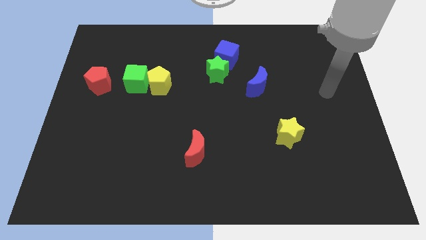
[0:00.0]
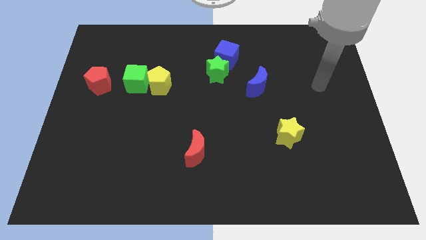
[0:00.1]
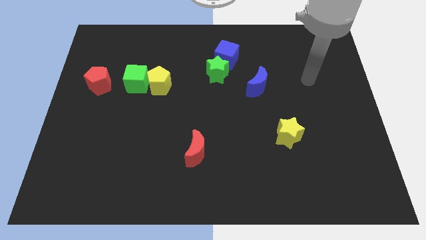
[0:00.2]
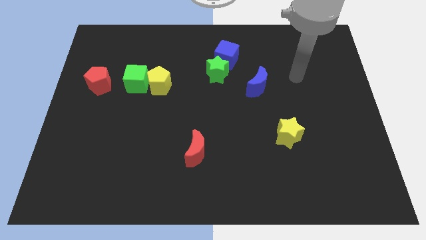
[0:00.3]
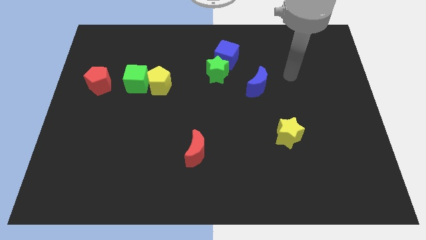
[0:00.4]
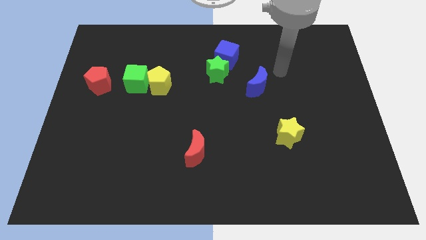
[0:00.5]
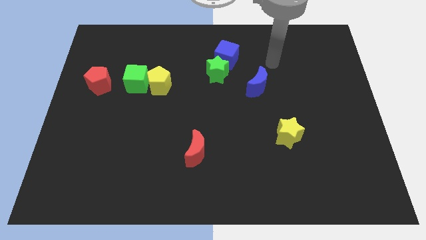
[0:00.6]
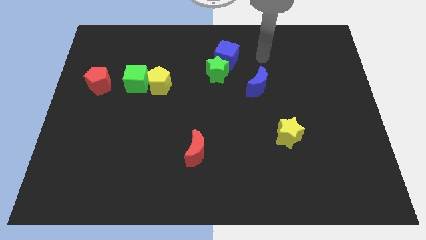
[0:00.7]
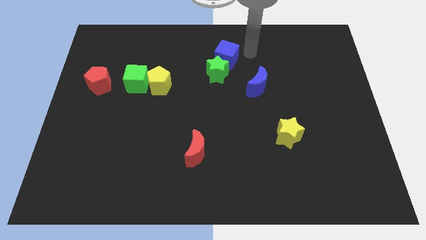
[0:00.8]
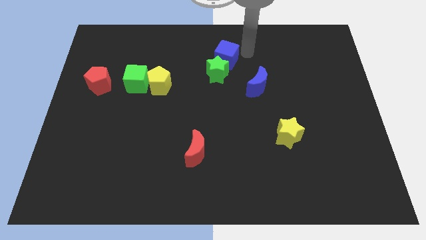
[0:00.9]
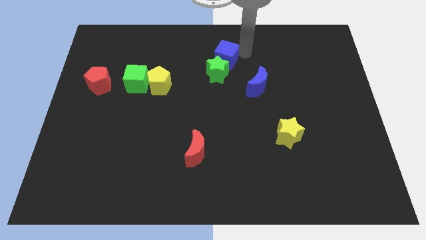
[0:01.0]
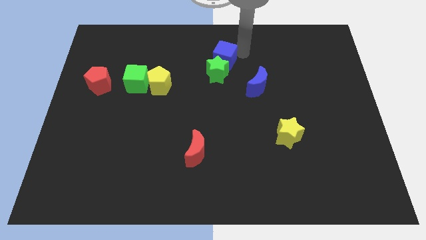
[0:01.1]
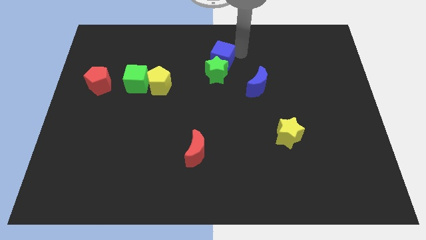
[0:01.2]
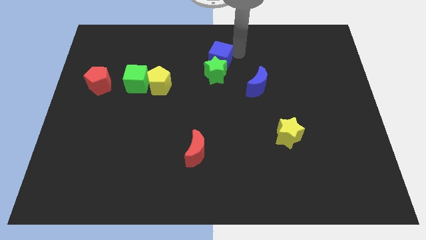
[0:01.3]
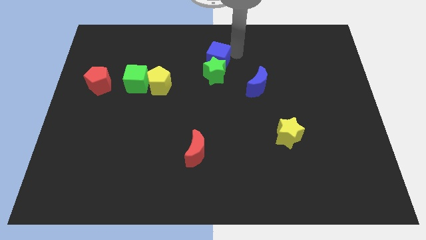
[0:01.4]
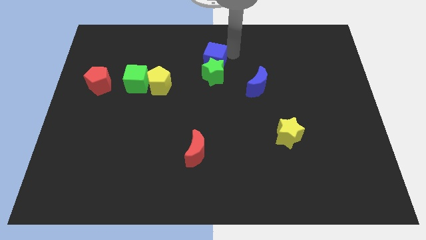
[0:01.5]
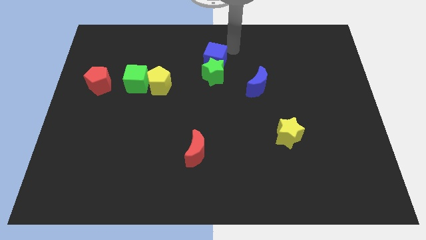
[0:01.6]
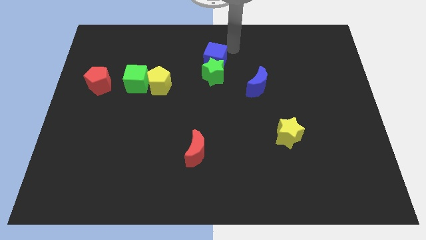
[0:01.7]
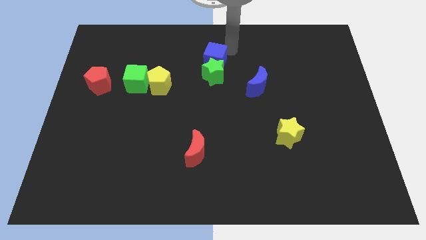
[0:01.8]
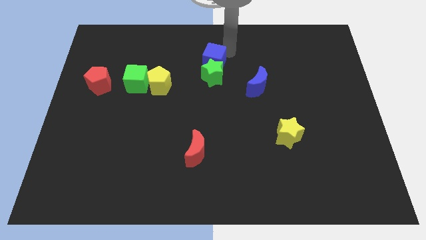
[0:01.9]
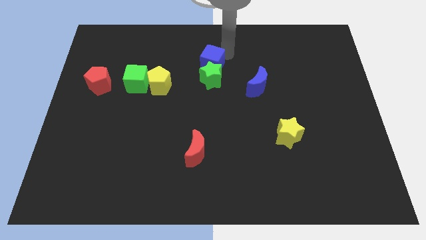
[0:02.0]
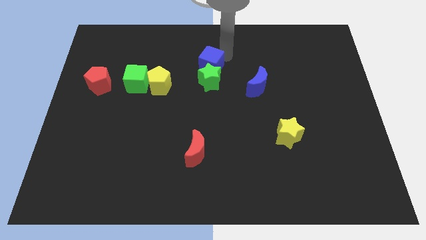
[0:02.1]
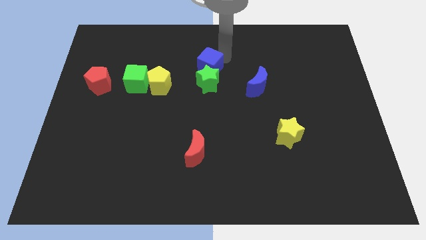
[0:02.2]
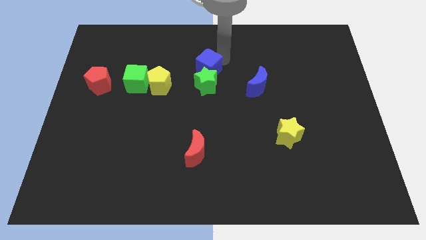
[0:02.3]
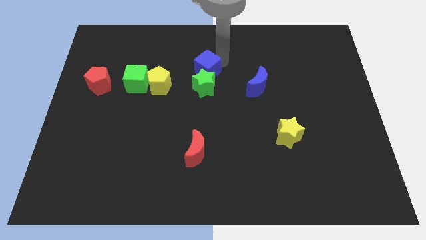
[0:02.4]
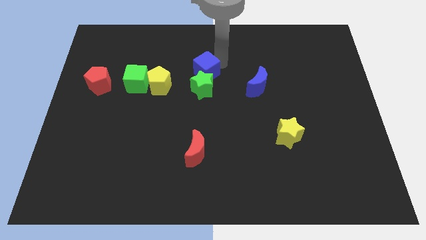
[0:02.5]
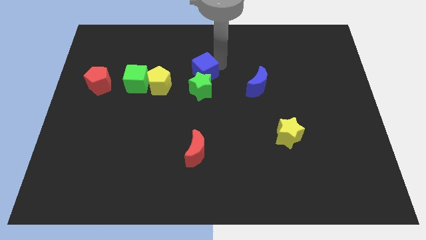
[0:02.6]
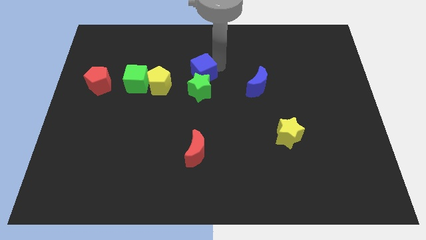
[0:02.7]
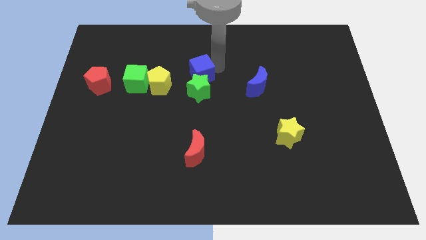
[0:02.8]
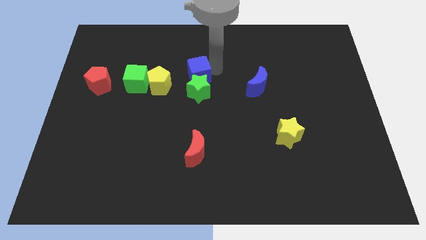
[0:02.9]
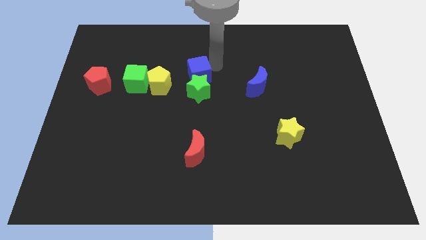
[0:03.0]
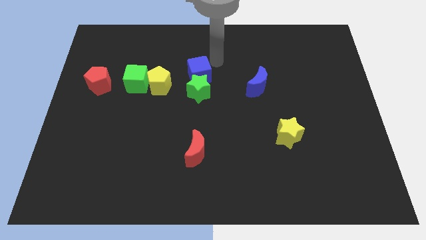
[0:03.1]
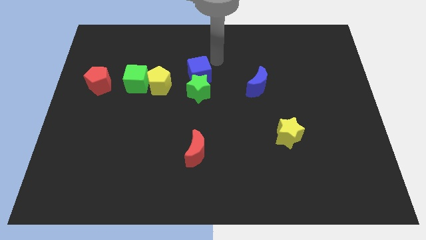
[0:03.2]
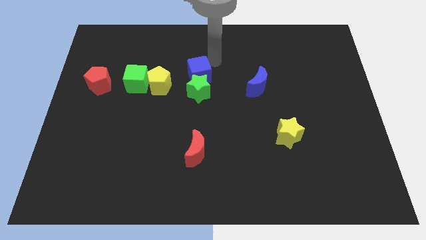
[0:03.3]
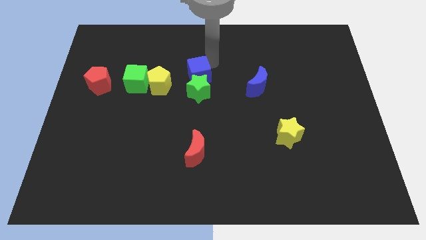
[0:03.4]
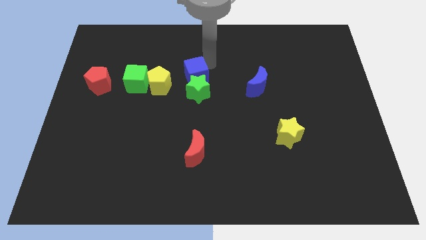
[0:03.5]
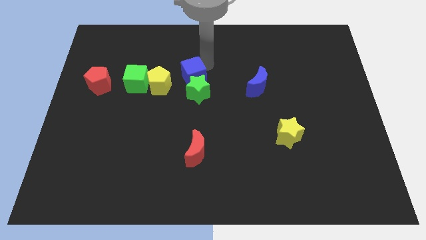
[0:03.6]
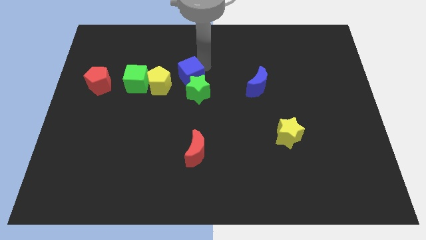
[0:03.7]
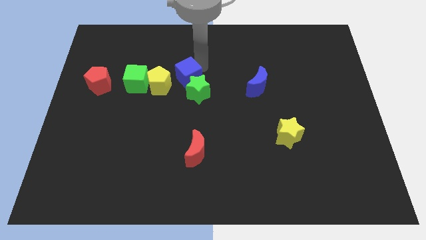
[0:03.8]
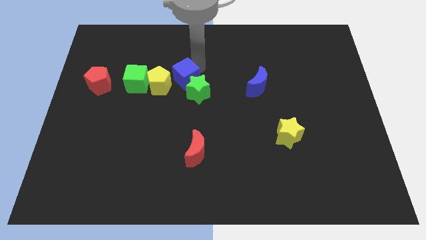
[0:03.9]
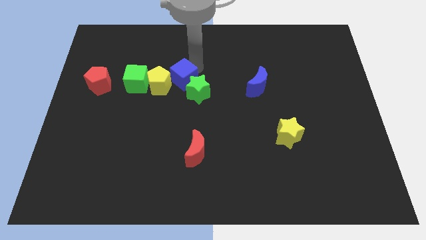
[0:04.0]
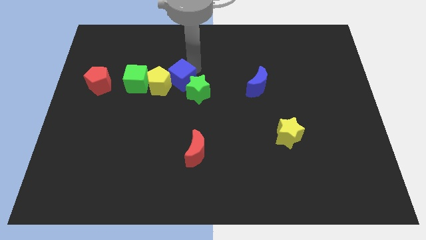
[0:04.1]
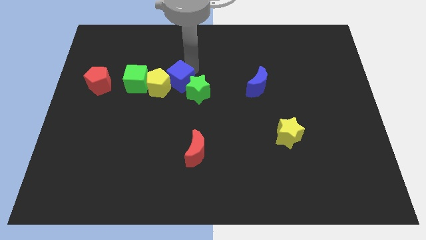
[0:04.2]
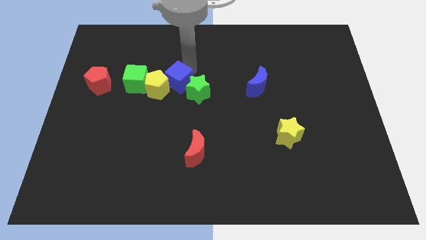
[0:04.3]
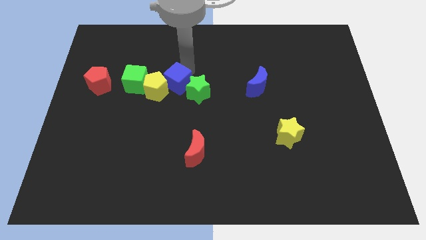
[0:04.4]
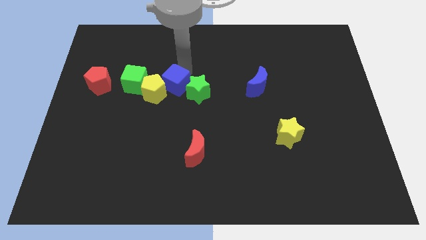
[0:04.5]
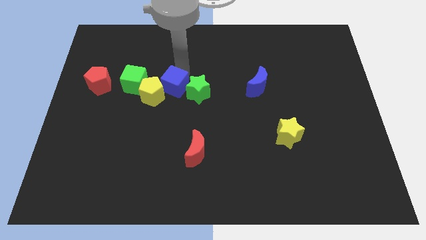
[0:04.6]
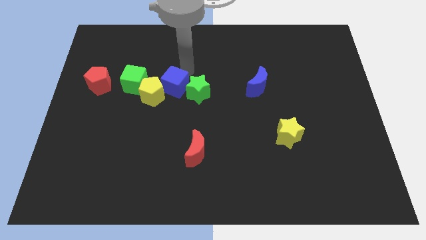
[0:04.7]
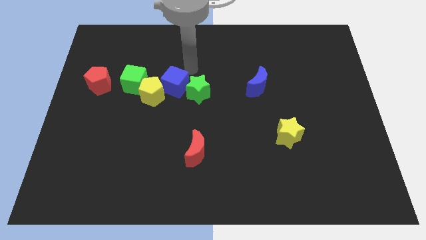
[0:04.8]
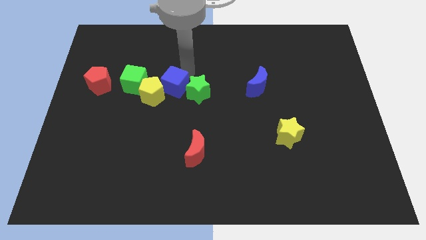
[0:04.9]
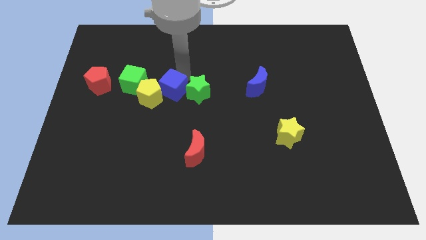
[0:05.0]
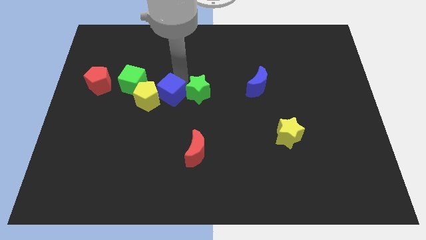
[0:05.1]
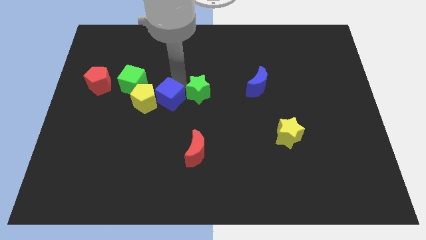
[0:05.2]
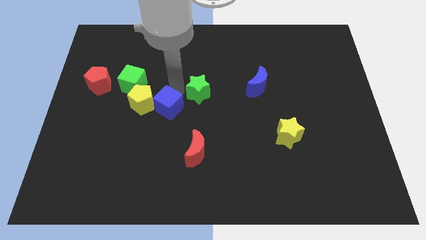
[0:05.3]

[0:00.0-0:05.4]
push the blue cube down and then to the left

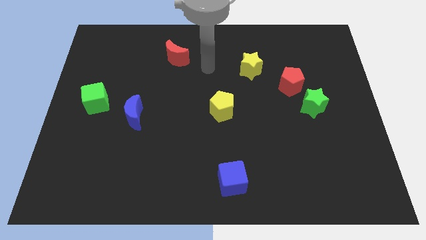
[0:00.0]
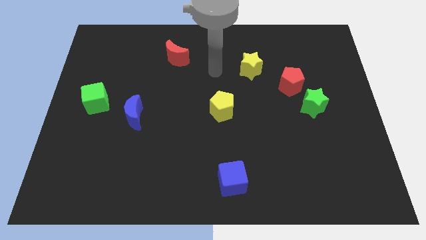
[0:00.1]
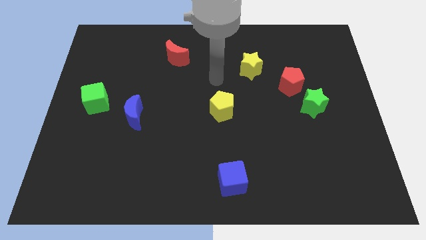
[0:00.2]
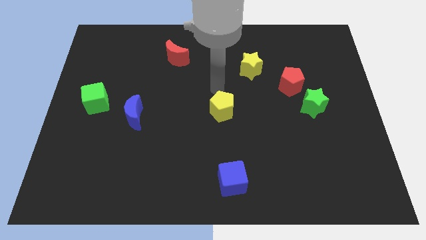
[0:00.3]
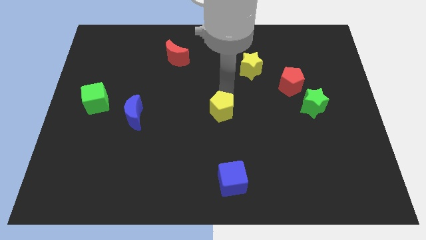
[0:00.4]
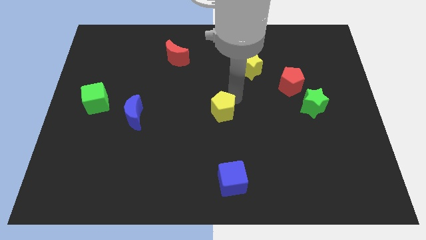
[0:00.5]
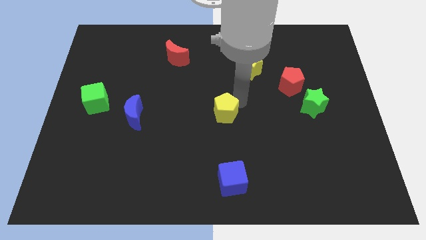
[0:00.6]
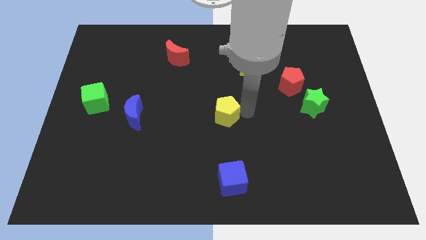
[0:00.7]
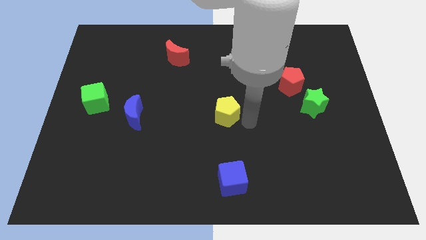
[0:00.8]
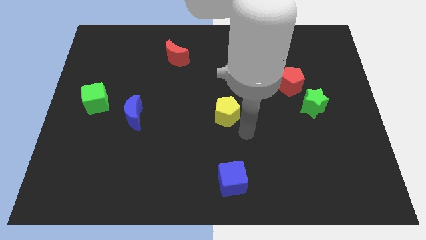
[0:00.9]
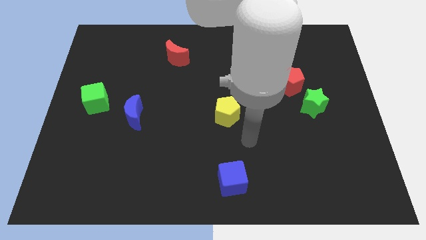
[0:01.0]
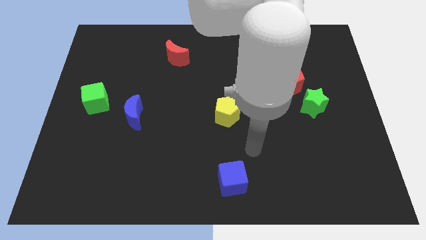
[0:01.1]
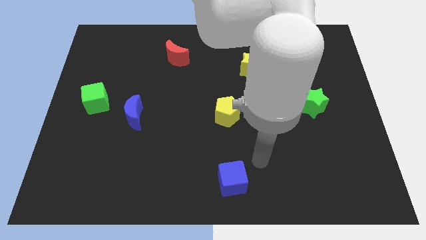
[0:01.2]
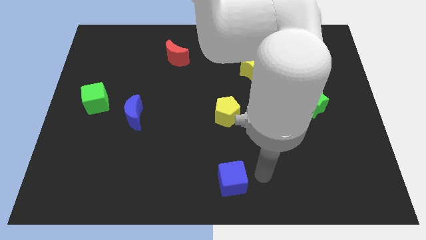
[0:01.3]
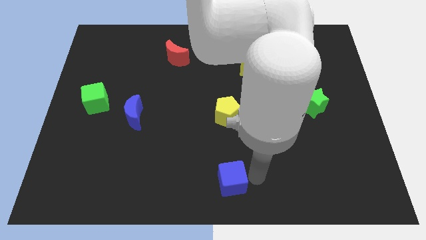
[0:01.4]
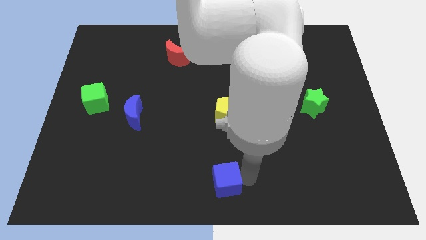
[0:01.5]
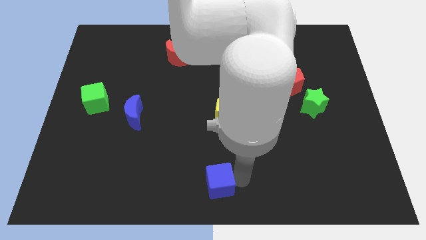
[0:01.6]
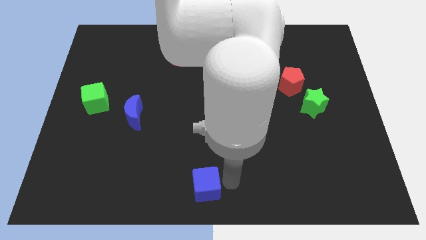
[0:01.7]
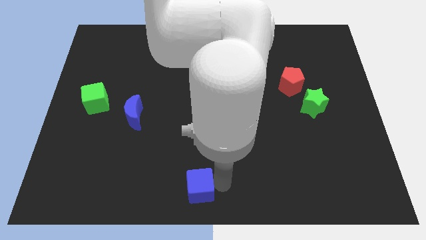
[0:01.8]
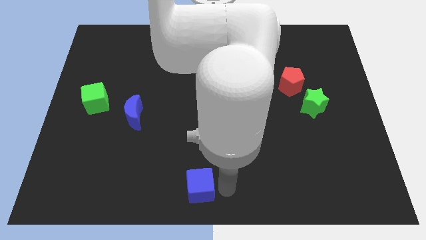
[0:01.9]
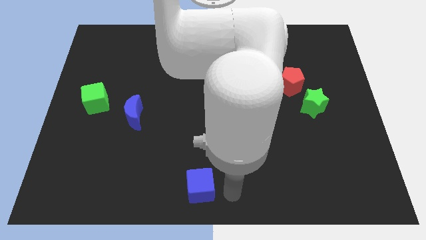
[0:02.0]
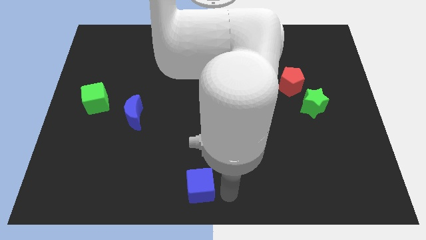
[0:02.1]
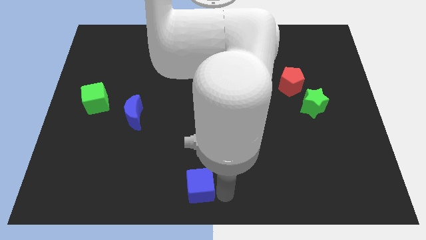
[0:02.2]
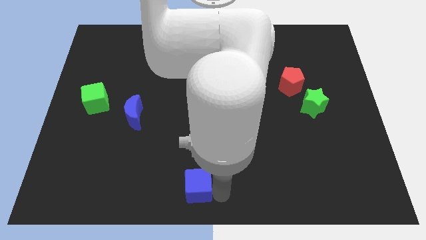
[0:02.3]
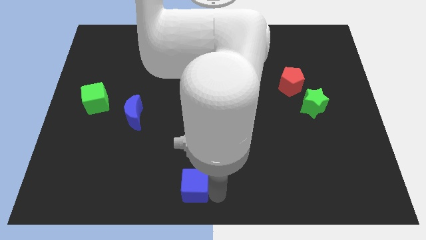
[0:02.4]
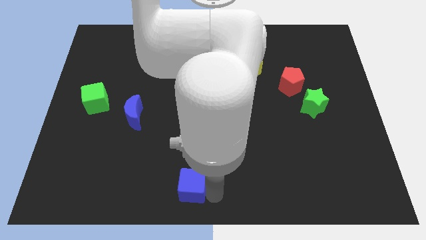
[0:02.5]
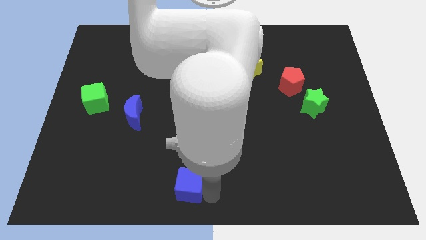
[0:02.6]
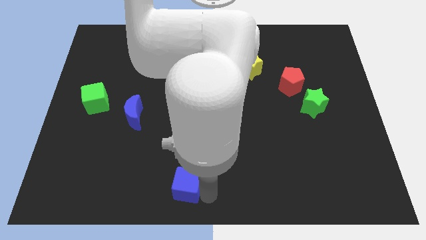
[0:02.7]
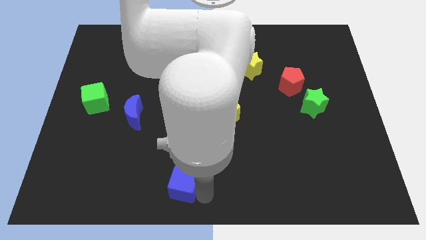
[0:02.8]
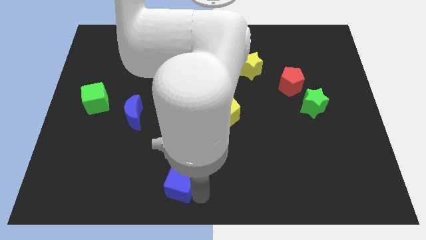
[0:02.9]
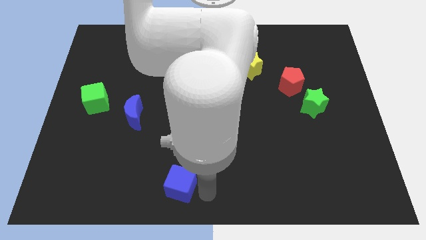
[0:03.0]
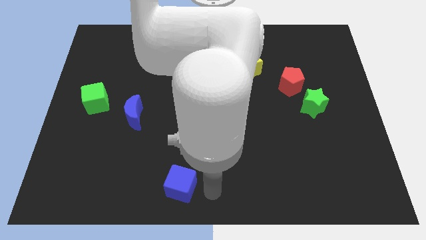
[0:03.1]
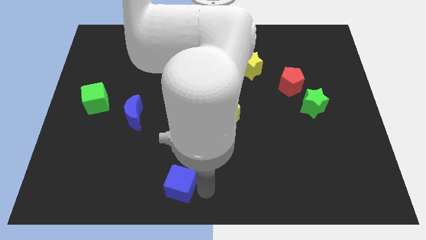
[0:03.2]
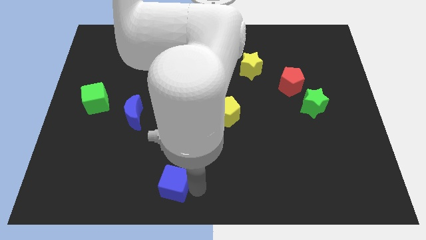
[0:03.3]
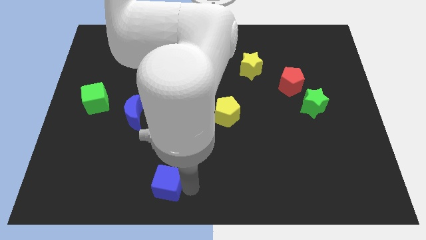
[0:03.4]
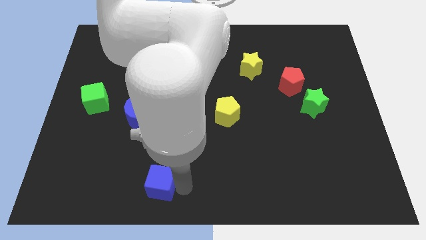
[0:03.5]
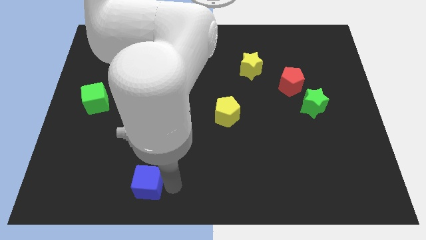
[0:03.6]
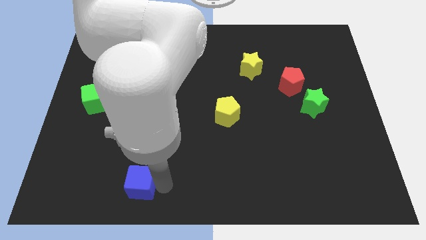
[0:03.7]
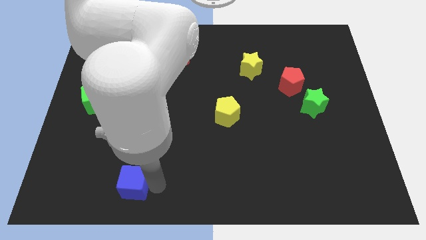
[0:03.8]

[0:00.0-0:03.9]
slide the blue cube left
